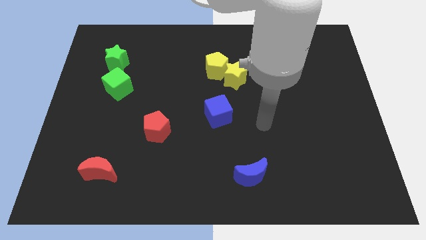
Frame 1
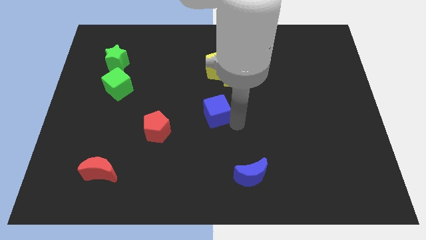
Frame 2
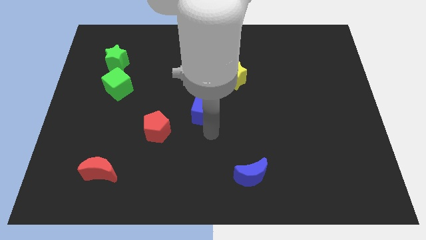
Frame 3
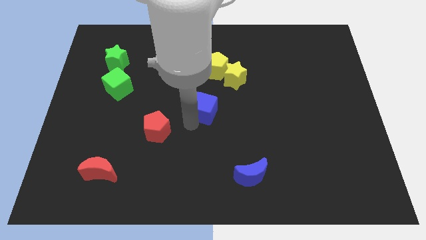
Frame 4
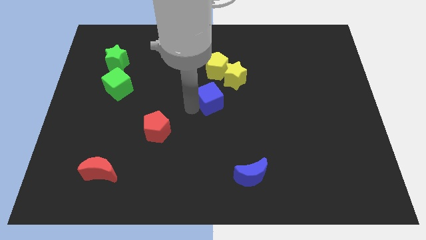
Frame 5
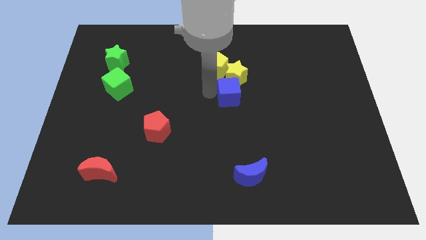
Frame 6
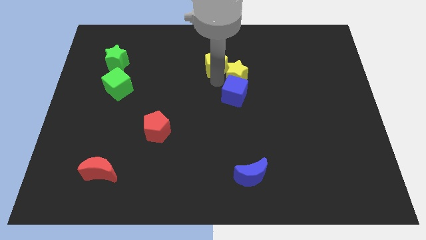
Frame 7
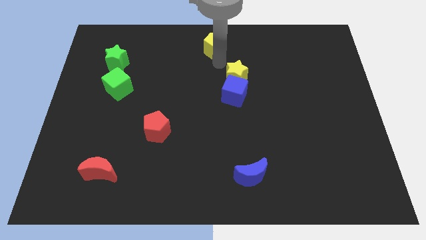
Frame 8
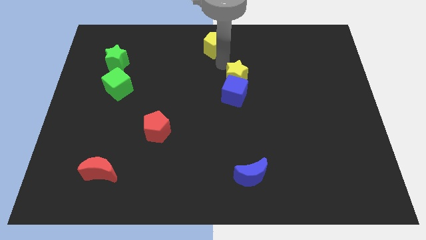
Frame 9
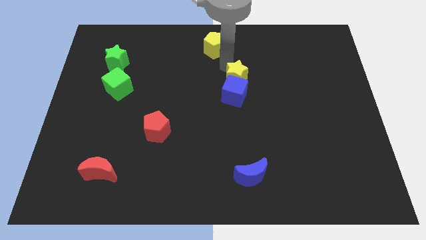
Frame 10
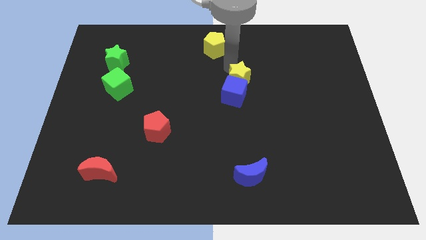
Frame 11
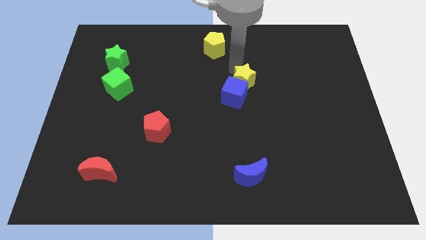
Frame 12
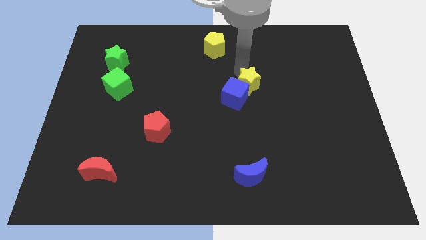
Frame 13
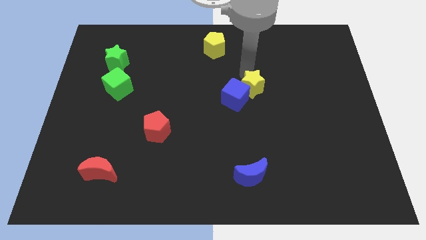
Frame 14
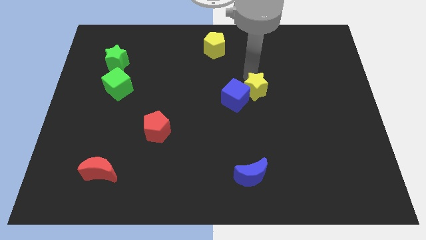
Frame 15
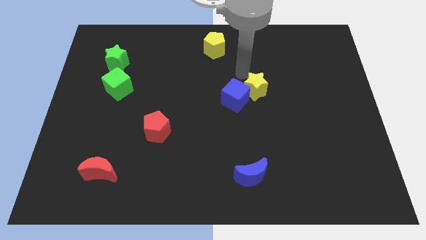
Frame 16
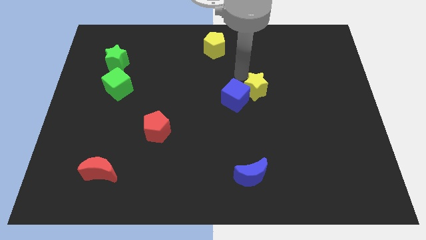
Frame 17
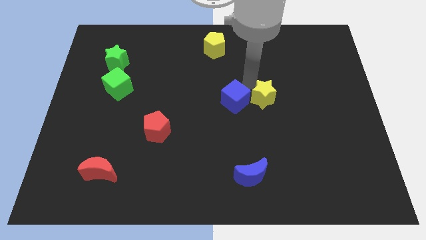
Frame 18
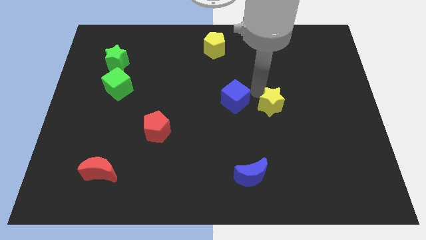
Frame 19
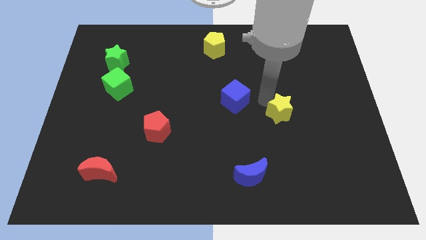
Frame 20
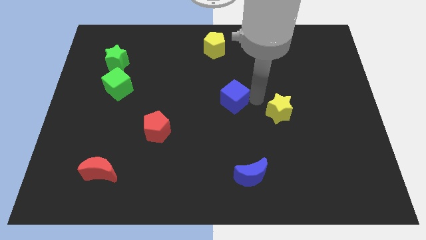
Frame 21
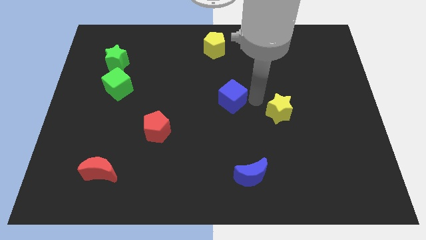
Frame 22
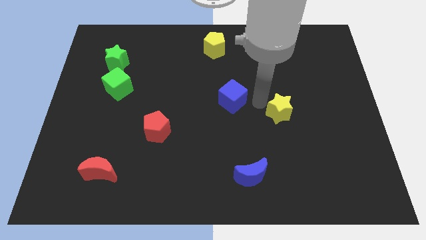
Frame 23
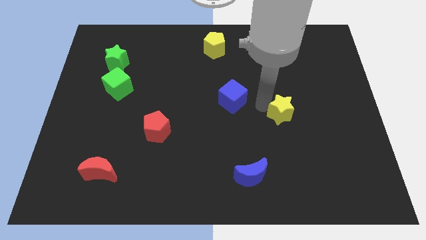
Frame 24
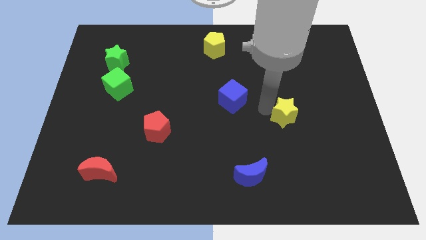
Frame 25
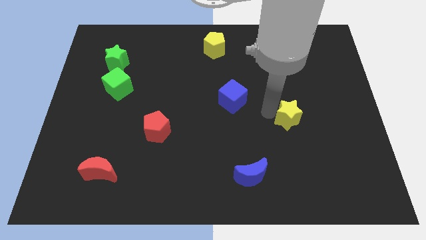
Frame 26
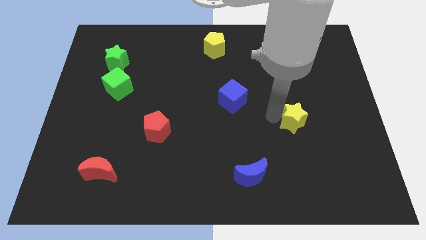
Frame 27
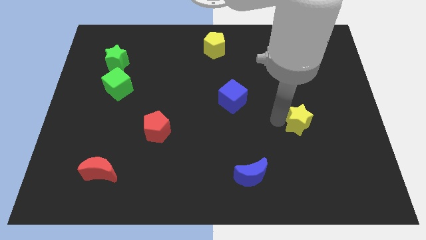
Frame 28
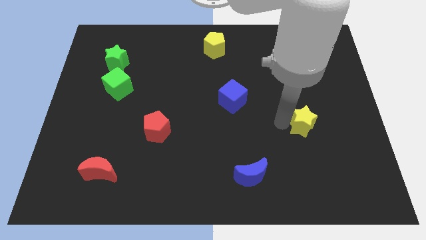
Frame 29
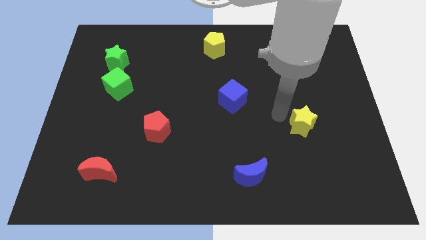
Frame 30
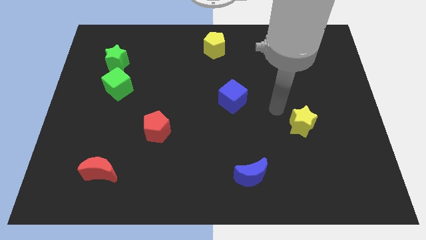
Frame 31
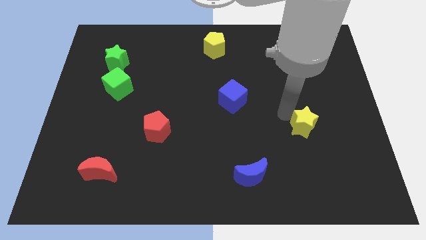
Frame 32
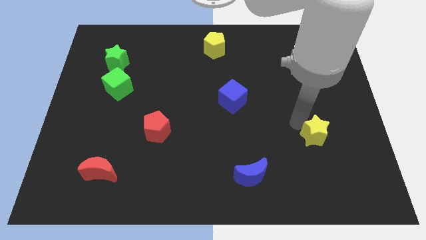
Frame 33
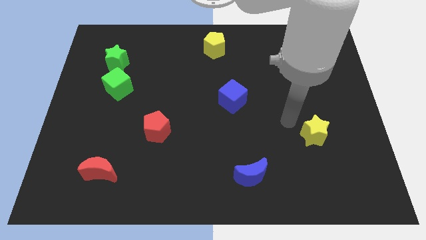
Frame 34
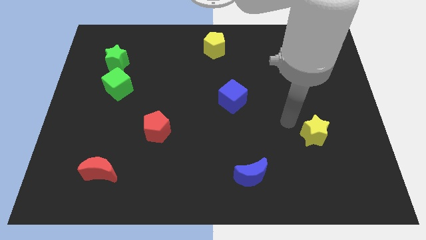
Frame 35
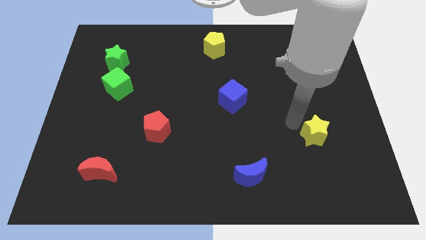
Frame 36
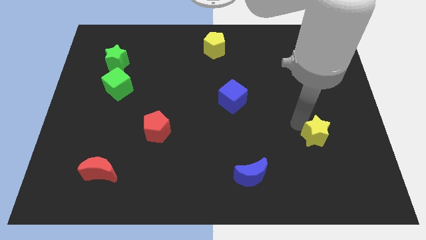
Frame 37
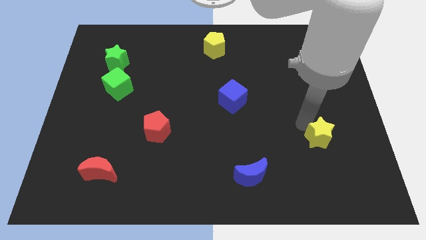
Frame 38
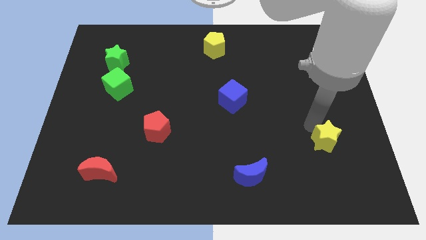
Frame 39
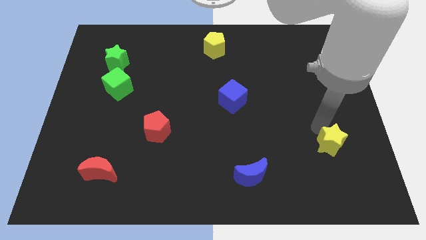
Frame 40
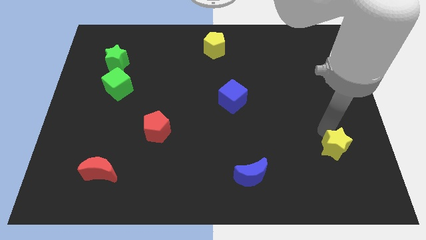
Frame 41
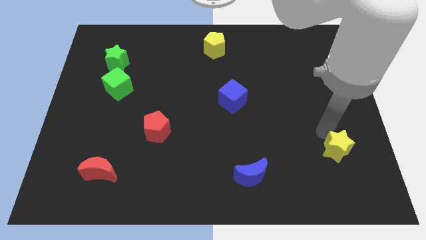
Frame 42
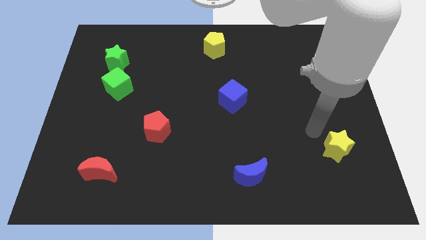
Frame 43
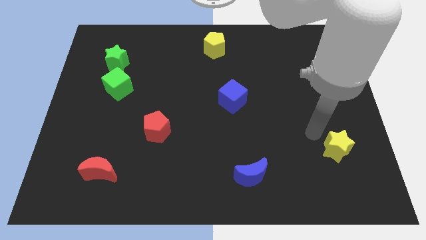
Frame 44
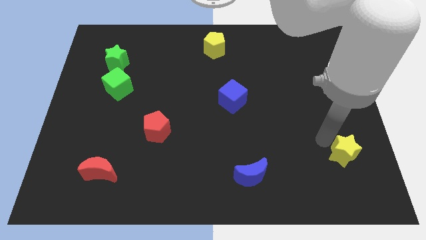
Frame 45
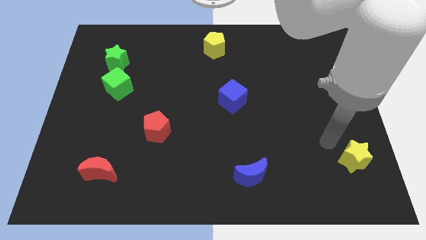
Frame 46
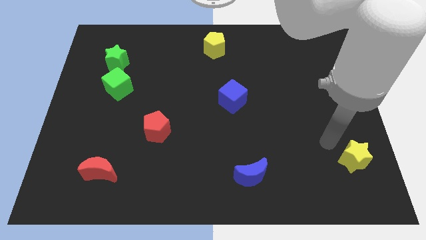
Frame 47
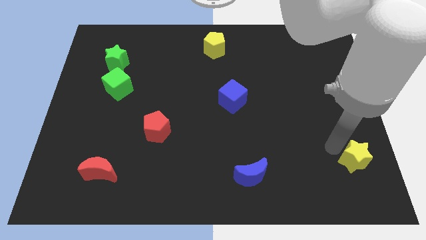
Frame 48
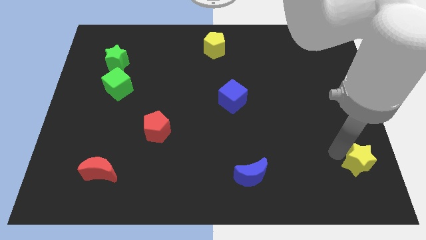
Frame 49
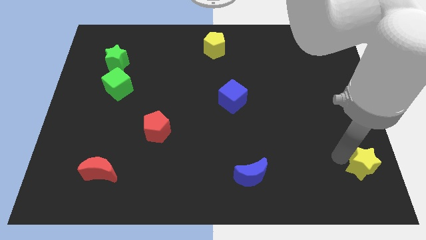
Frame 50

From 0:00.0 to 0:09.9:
put the yellow star to the bottom right of the board

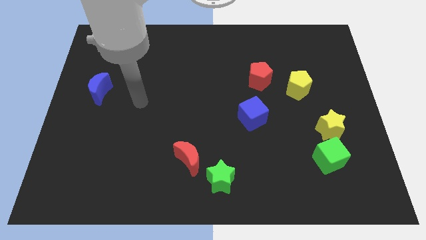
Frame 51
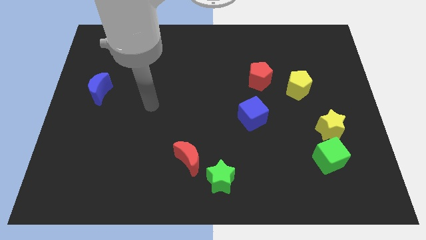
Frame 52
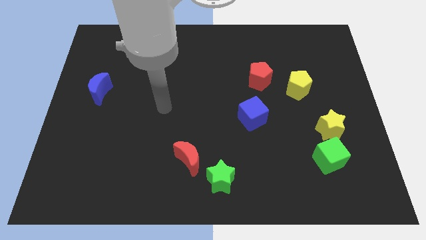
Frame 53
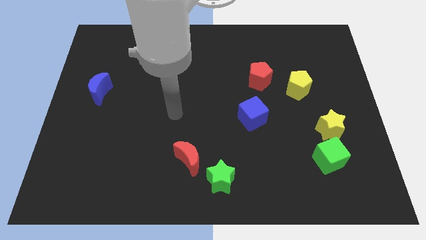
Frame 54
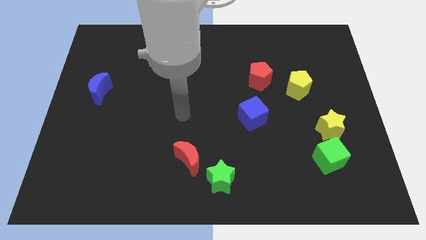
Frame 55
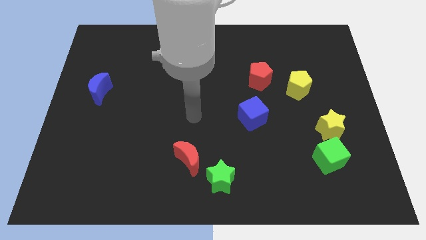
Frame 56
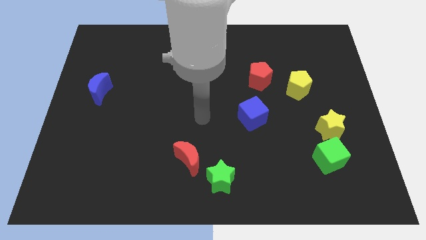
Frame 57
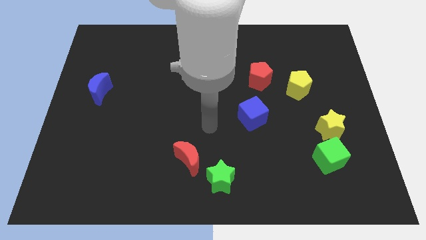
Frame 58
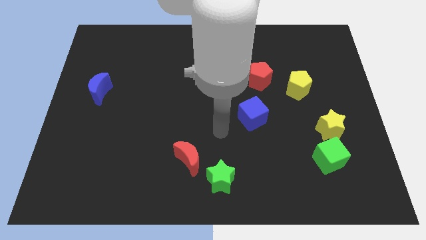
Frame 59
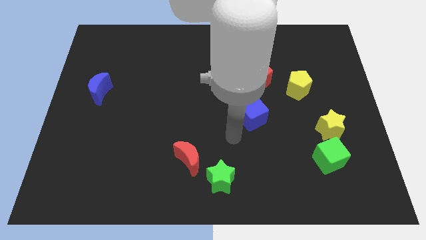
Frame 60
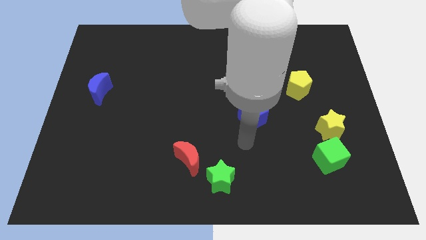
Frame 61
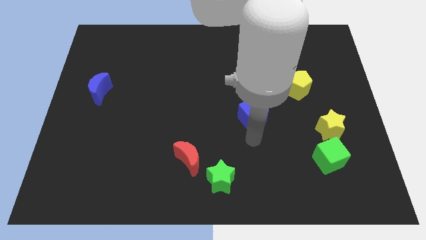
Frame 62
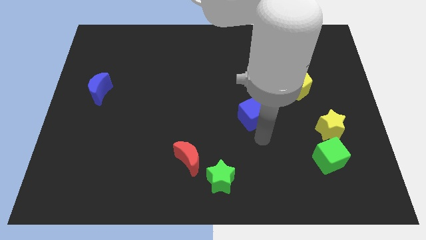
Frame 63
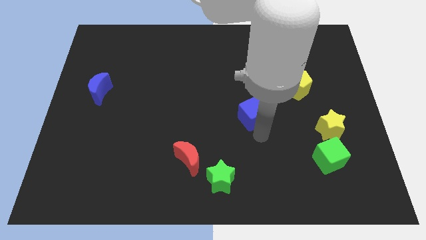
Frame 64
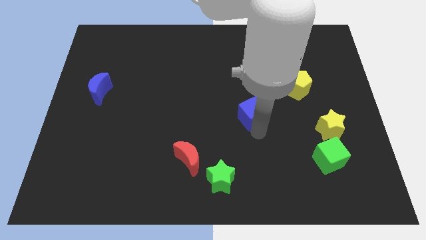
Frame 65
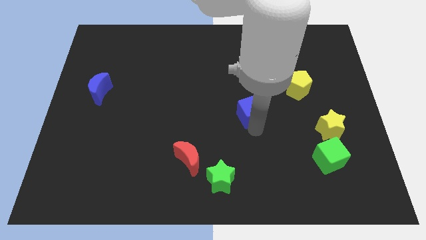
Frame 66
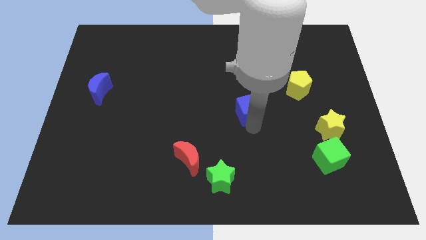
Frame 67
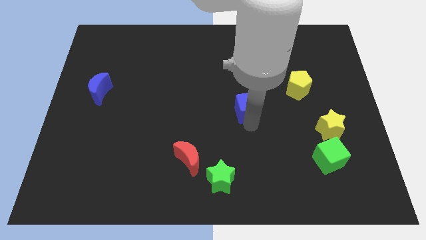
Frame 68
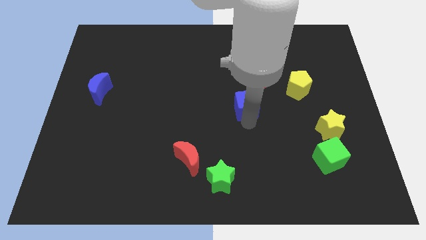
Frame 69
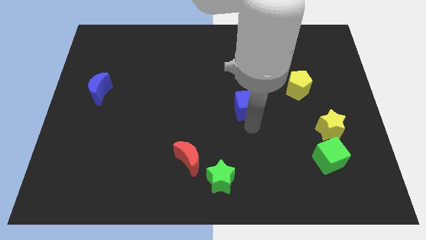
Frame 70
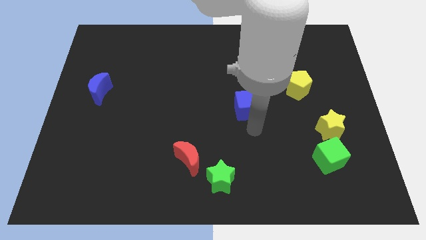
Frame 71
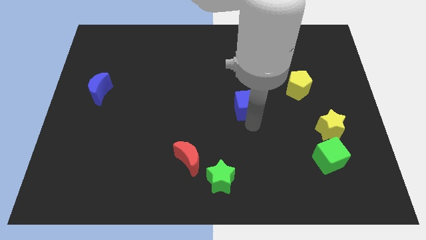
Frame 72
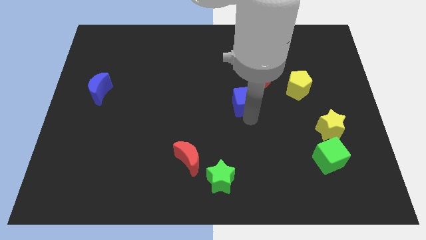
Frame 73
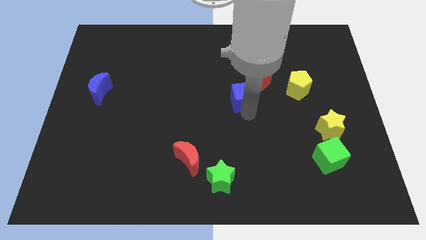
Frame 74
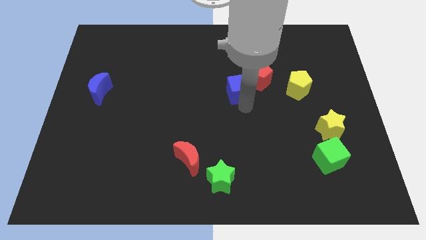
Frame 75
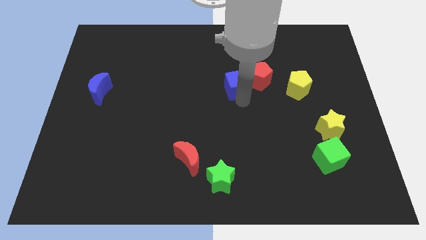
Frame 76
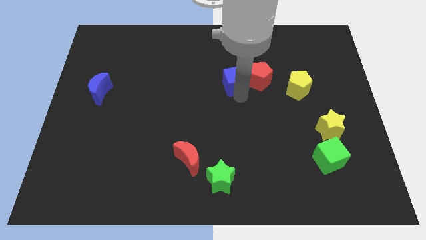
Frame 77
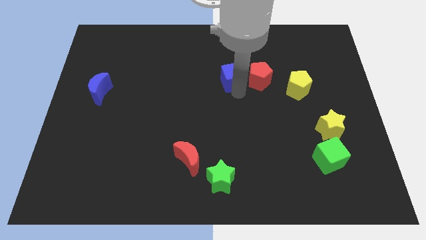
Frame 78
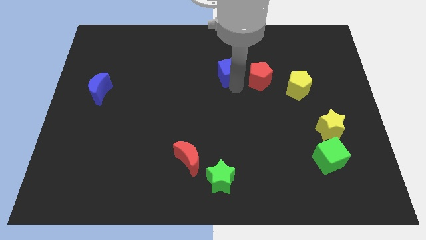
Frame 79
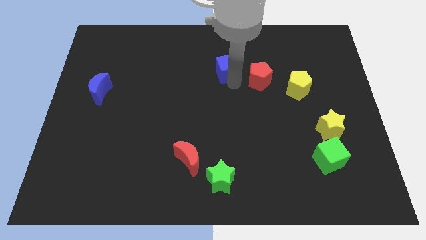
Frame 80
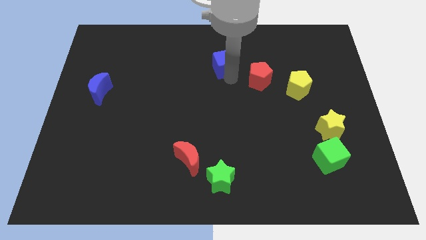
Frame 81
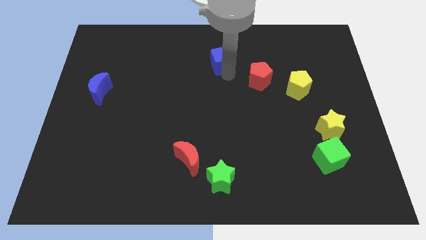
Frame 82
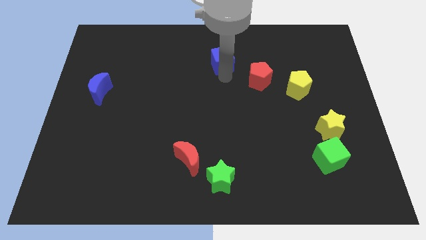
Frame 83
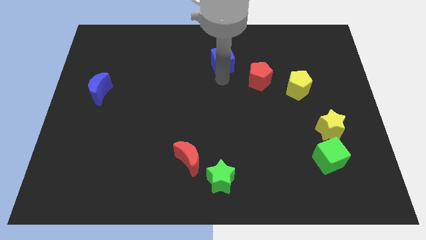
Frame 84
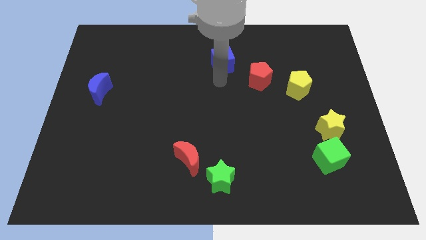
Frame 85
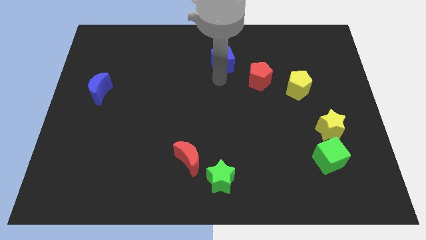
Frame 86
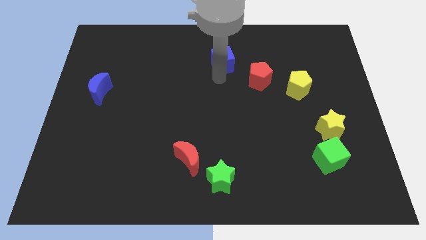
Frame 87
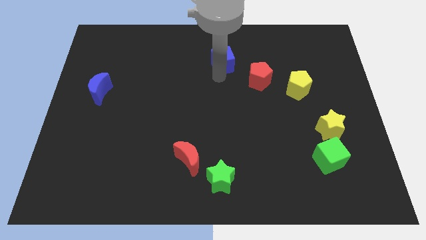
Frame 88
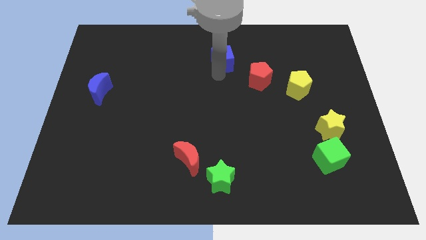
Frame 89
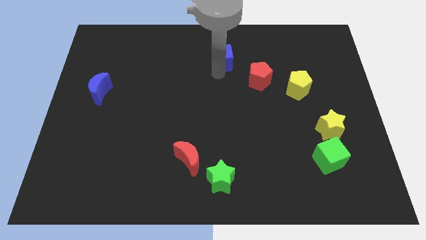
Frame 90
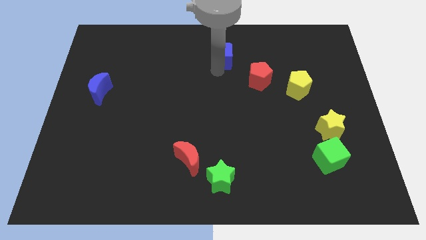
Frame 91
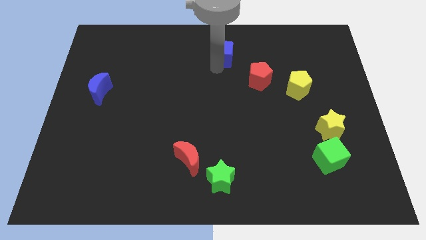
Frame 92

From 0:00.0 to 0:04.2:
slide the blue cube to the top side
